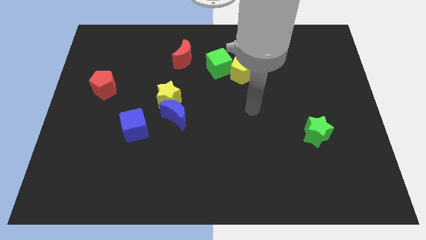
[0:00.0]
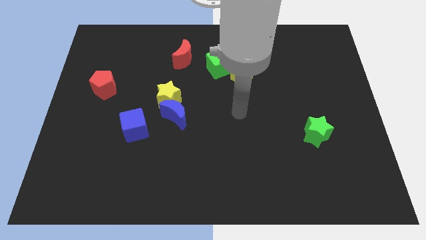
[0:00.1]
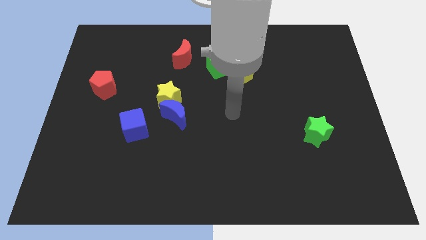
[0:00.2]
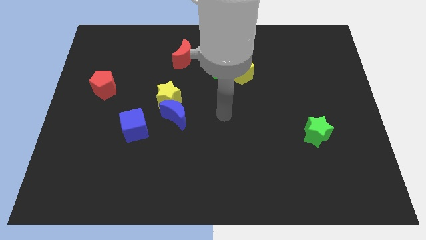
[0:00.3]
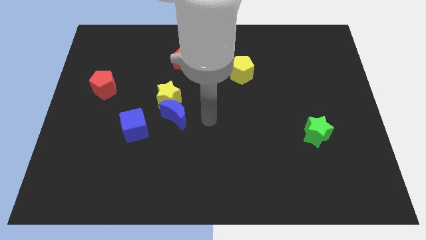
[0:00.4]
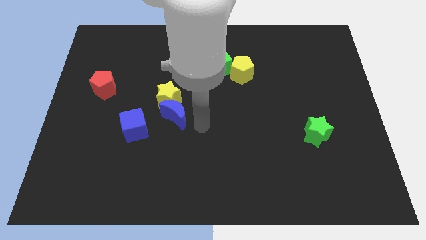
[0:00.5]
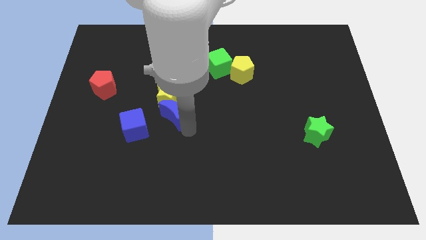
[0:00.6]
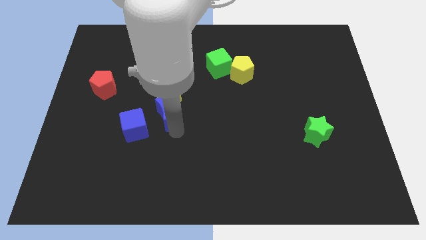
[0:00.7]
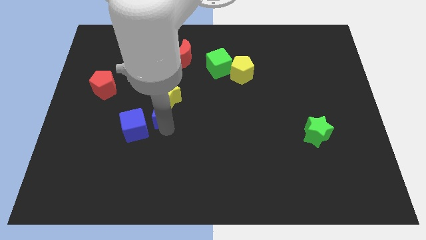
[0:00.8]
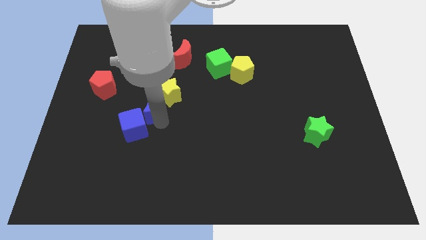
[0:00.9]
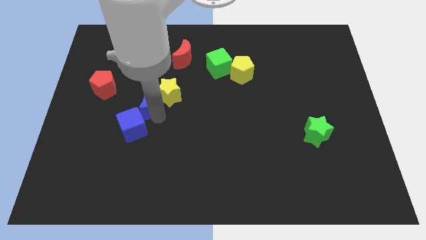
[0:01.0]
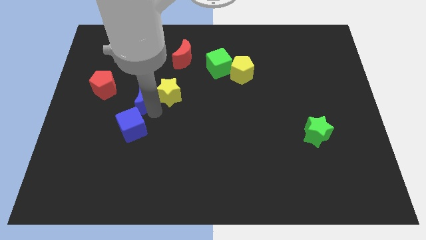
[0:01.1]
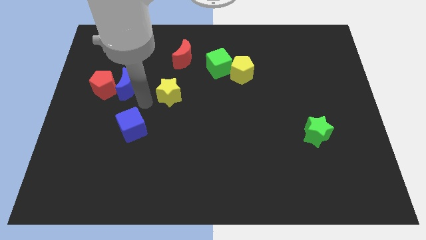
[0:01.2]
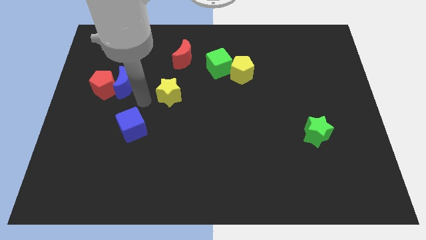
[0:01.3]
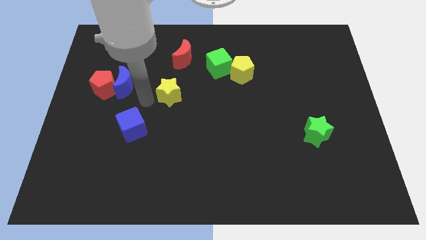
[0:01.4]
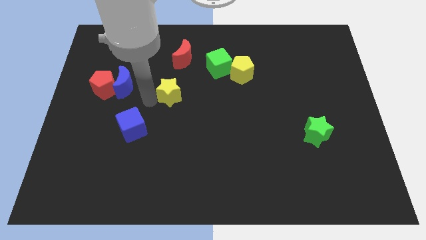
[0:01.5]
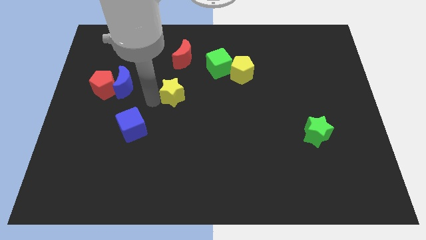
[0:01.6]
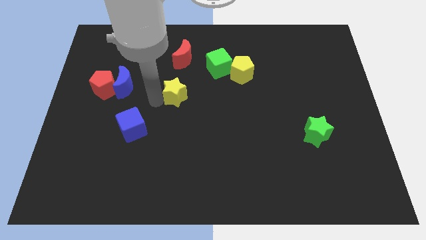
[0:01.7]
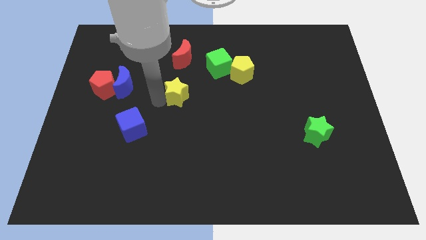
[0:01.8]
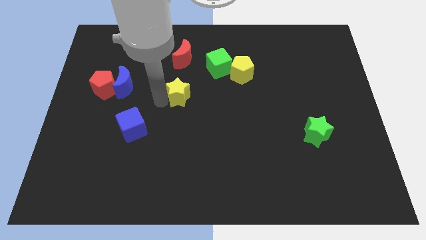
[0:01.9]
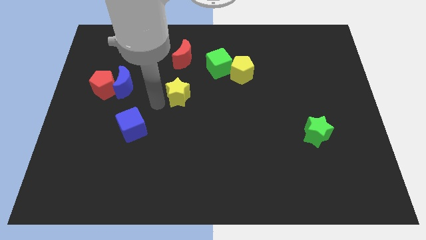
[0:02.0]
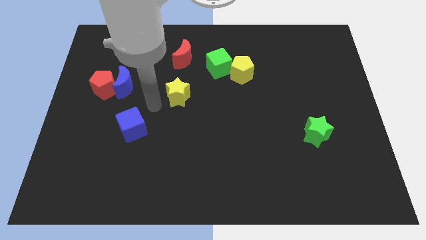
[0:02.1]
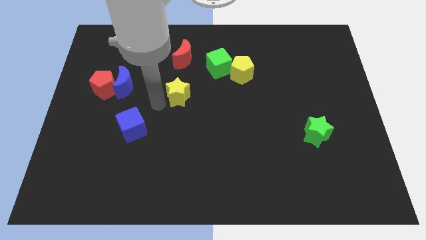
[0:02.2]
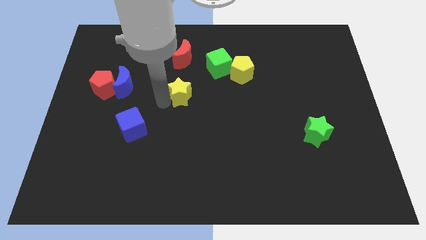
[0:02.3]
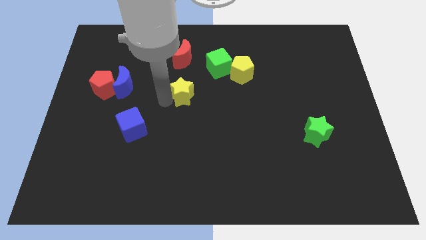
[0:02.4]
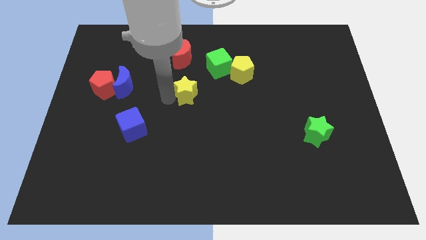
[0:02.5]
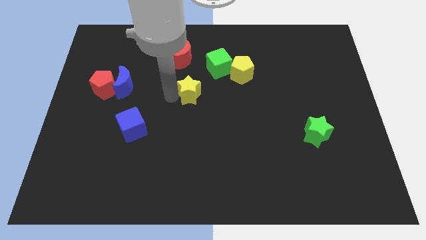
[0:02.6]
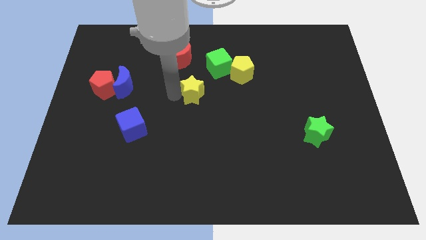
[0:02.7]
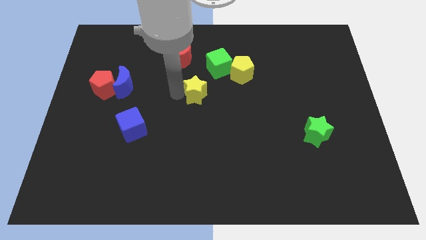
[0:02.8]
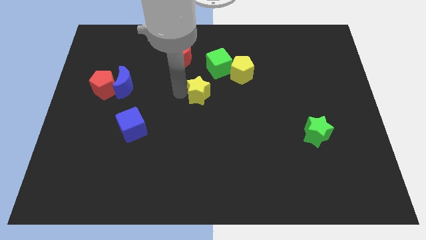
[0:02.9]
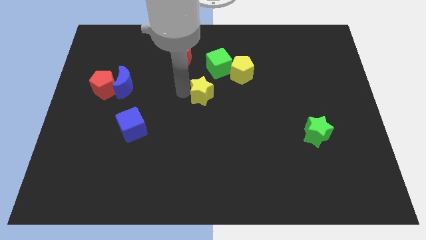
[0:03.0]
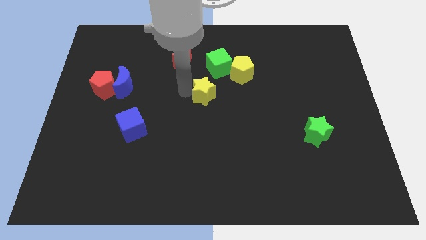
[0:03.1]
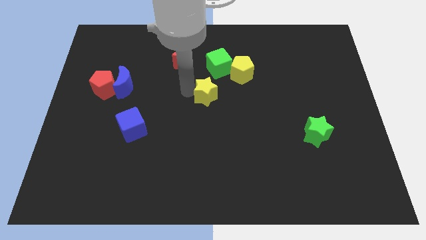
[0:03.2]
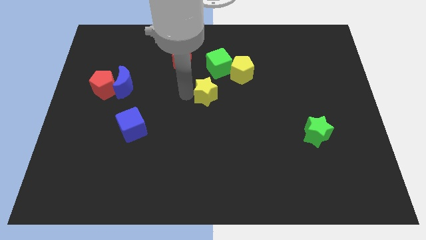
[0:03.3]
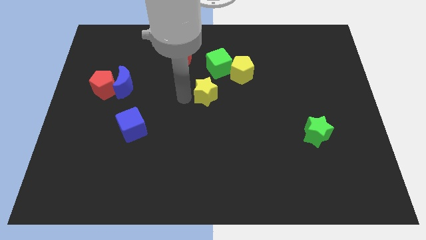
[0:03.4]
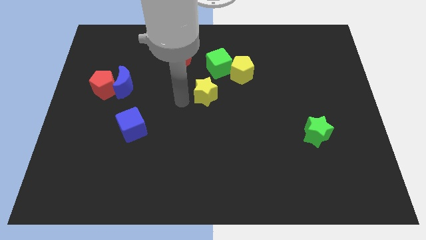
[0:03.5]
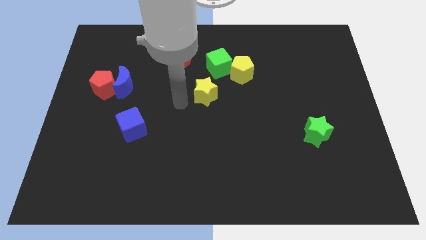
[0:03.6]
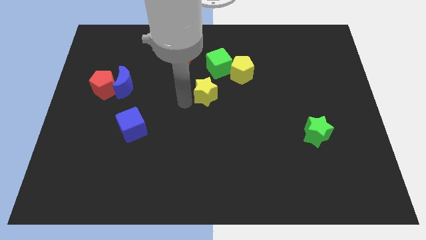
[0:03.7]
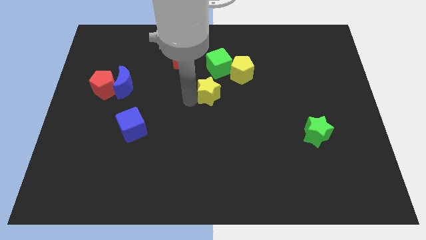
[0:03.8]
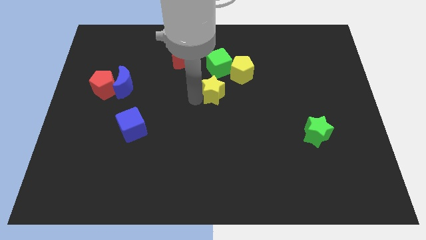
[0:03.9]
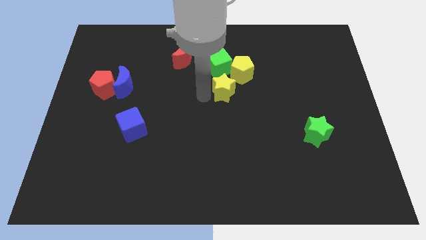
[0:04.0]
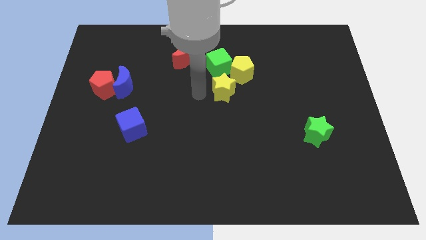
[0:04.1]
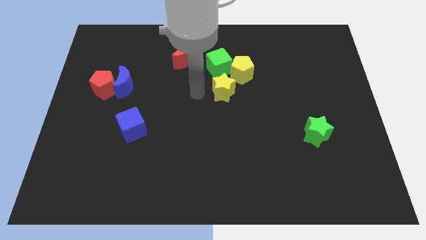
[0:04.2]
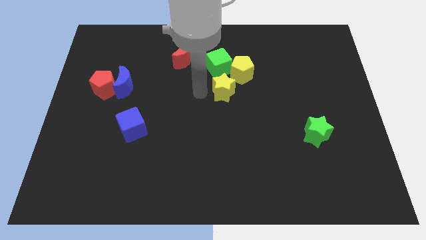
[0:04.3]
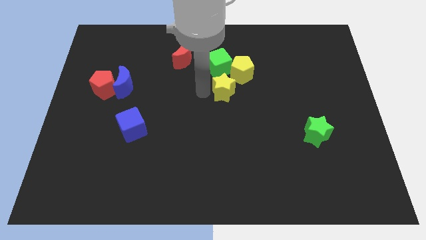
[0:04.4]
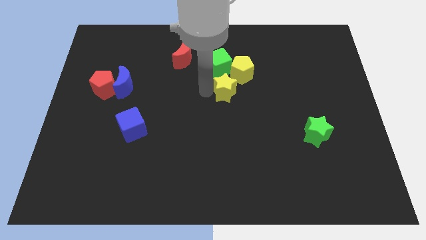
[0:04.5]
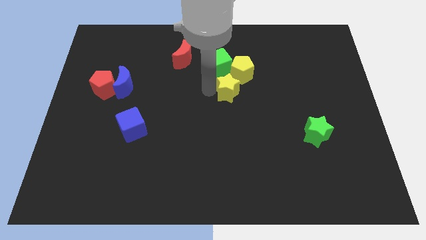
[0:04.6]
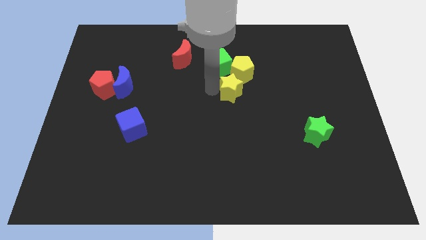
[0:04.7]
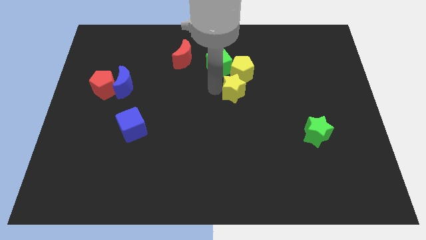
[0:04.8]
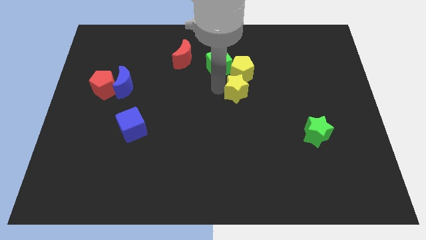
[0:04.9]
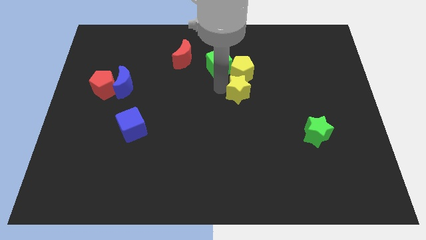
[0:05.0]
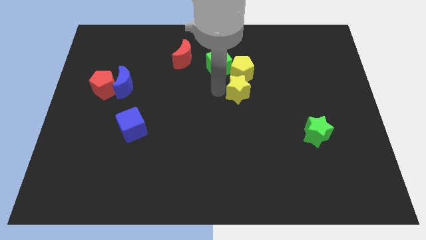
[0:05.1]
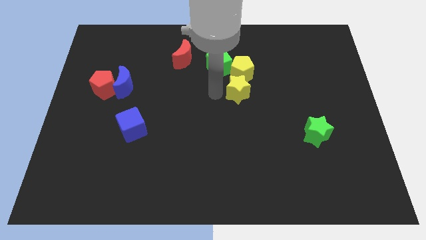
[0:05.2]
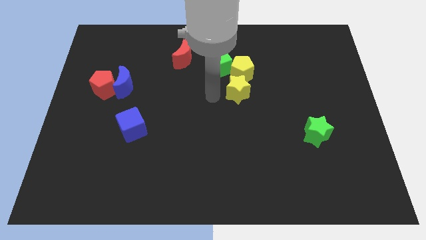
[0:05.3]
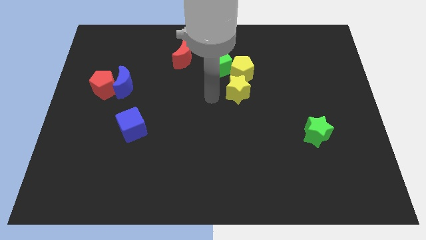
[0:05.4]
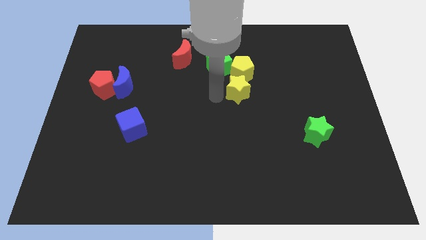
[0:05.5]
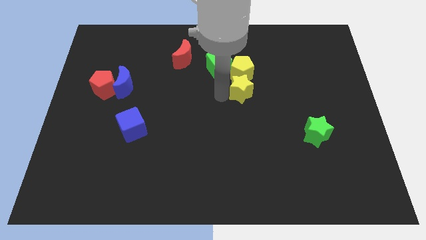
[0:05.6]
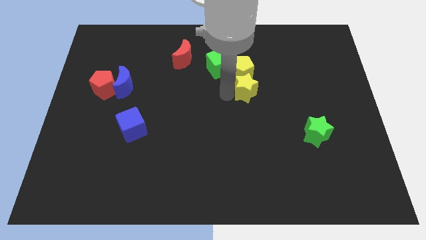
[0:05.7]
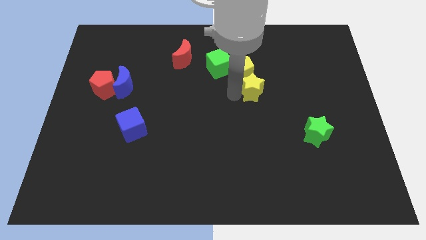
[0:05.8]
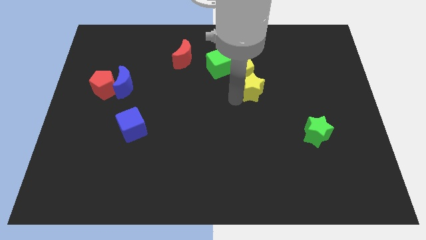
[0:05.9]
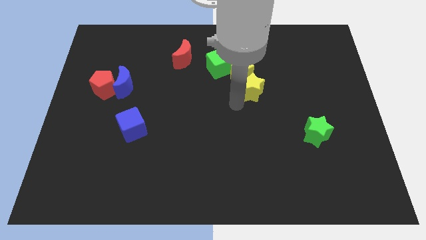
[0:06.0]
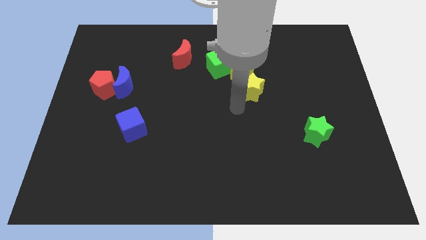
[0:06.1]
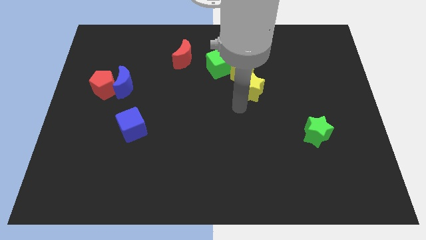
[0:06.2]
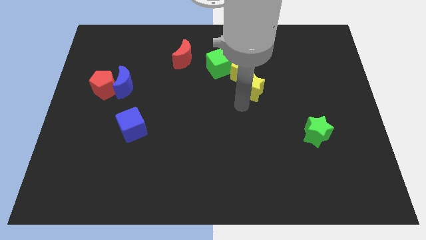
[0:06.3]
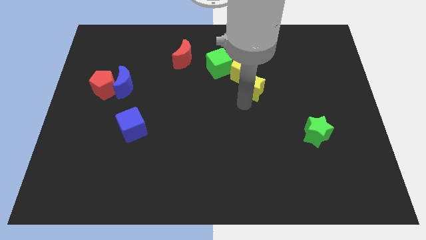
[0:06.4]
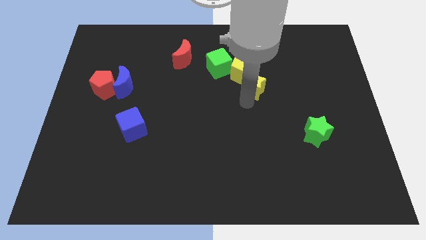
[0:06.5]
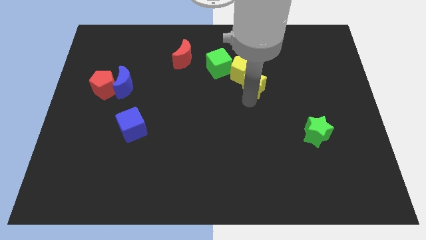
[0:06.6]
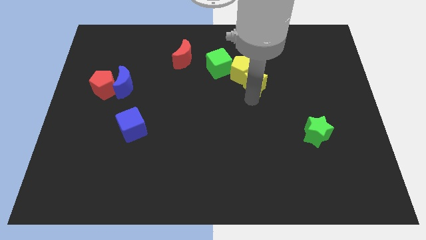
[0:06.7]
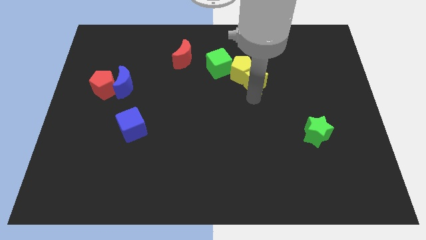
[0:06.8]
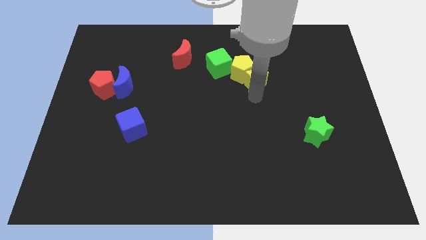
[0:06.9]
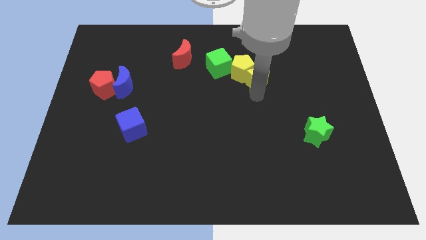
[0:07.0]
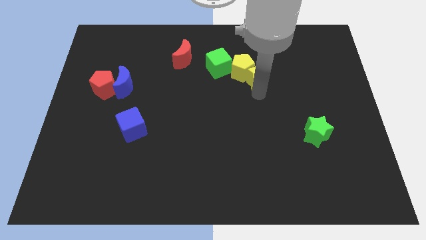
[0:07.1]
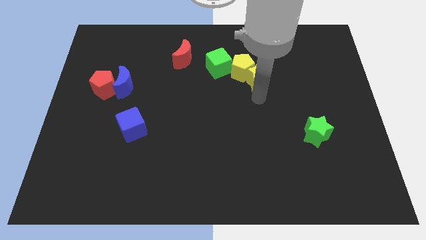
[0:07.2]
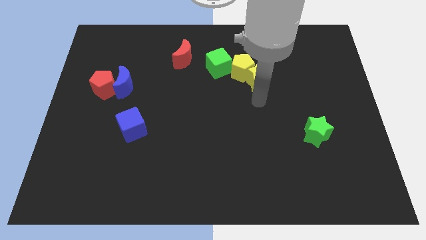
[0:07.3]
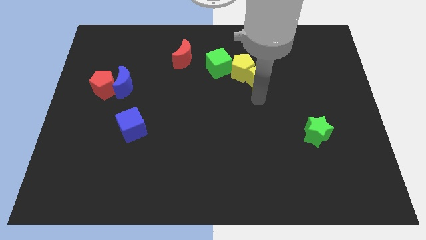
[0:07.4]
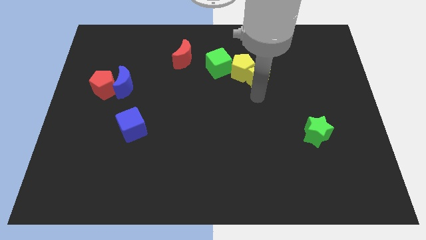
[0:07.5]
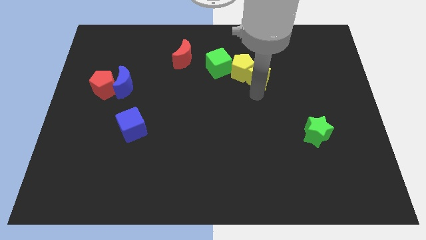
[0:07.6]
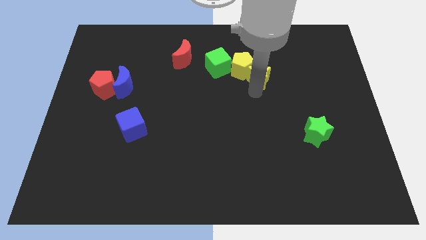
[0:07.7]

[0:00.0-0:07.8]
put the yellow star just right of the green cube
